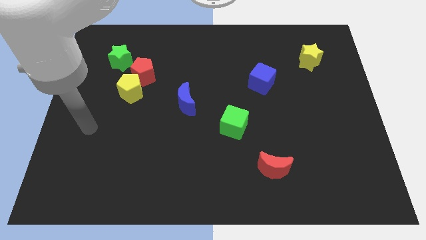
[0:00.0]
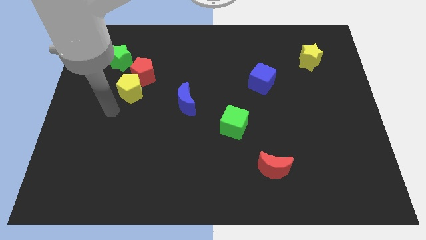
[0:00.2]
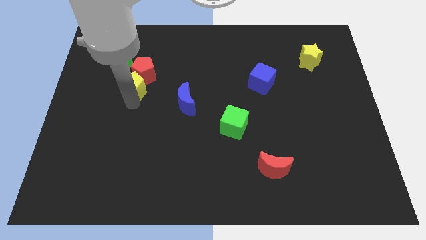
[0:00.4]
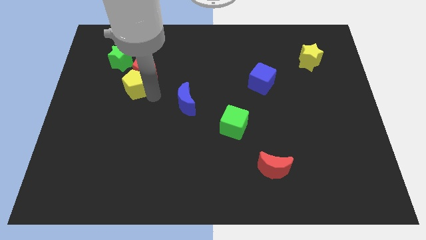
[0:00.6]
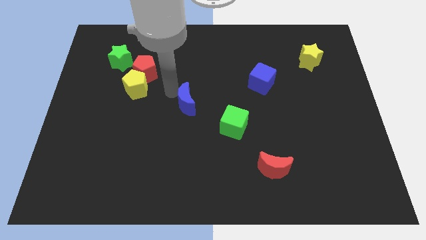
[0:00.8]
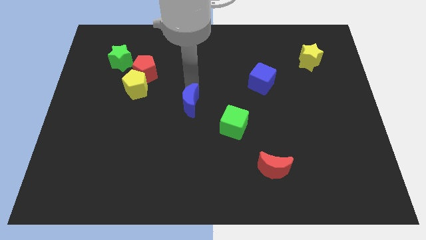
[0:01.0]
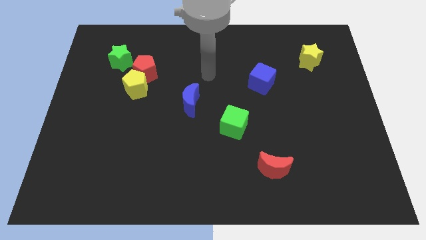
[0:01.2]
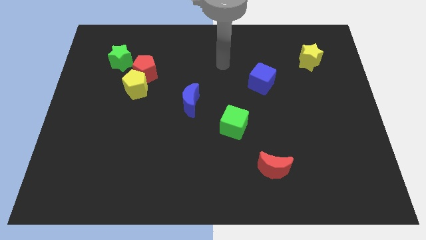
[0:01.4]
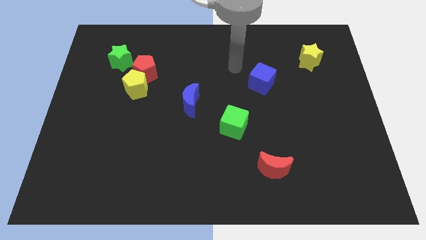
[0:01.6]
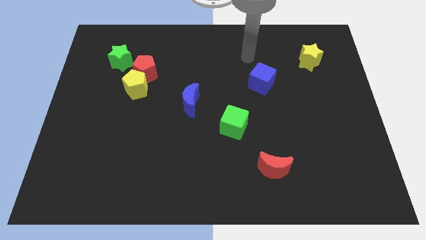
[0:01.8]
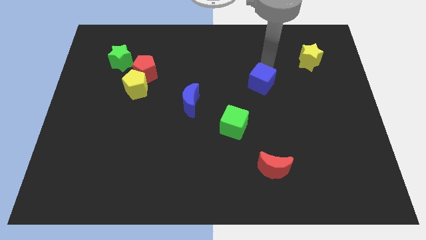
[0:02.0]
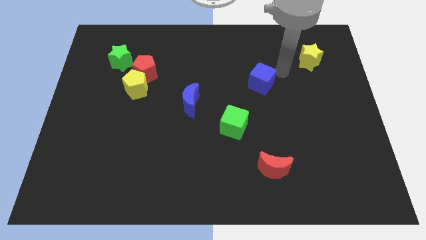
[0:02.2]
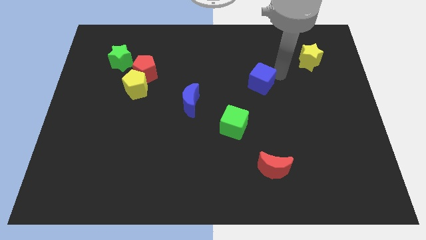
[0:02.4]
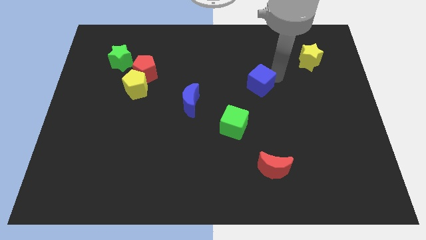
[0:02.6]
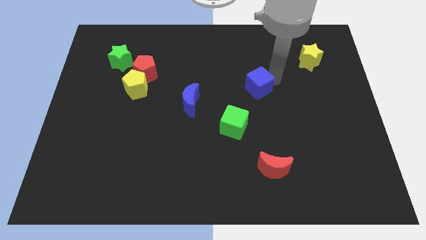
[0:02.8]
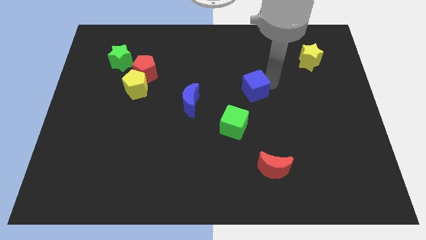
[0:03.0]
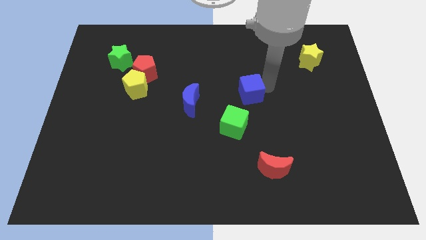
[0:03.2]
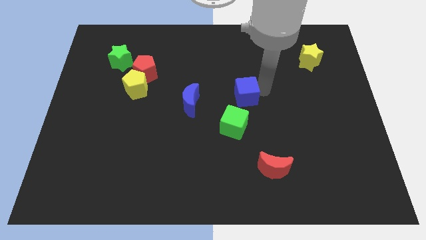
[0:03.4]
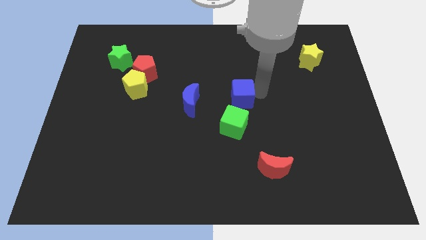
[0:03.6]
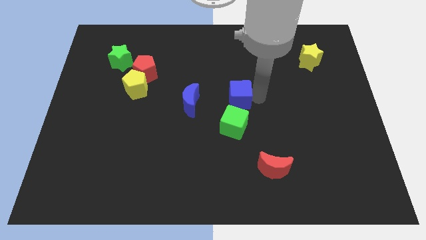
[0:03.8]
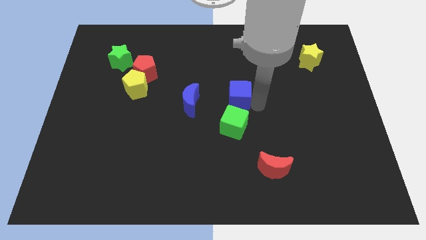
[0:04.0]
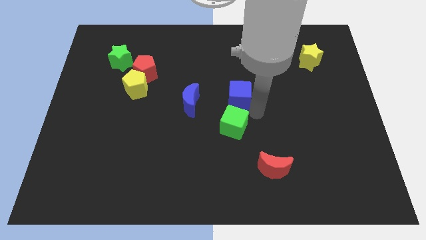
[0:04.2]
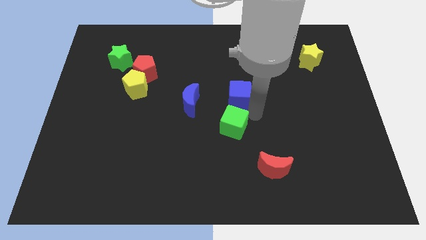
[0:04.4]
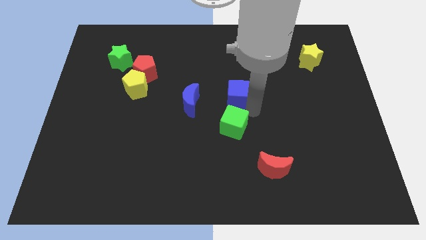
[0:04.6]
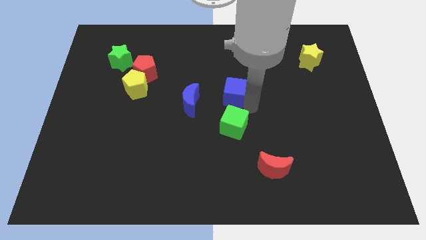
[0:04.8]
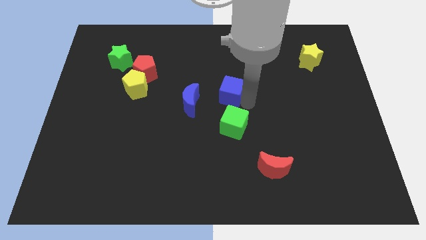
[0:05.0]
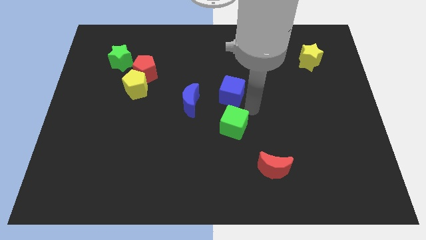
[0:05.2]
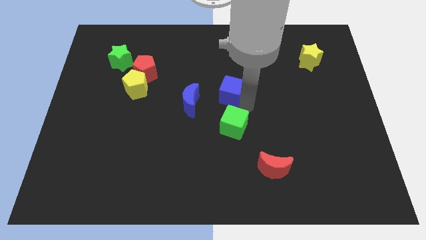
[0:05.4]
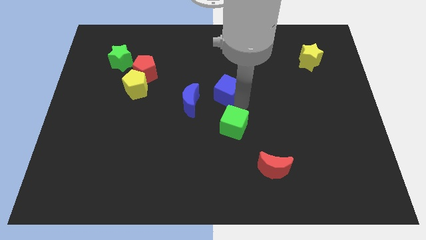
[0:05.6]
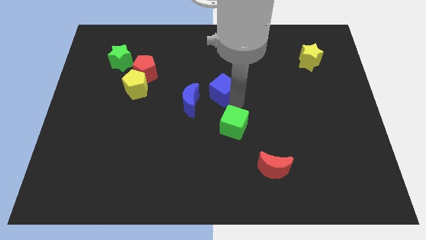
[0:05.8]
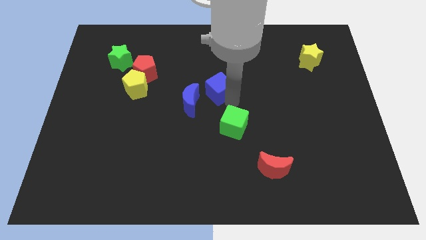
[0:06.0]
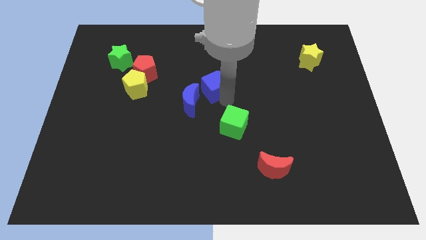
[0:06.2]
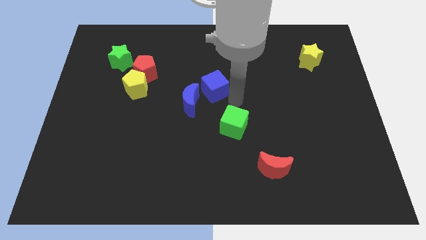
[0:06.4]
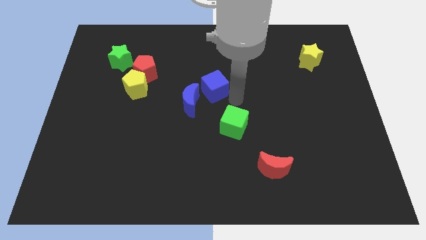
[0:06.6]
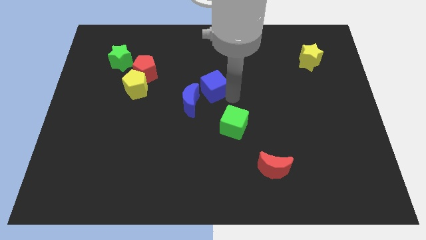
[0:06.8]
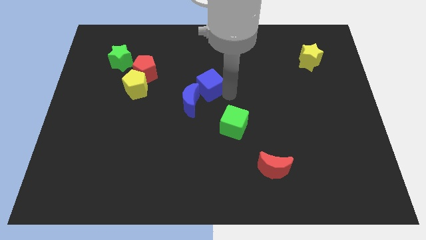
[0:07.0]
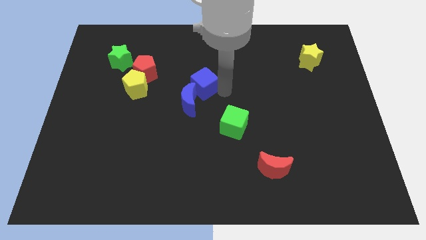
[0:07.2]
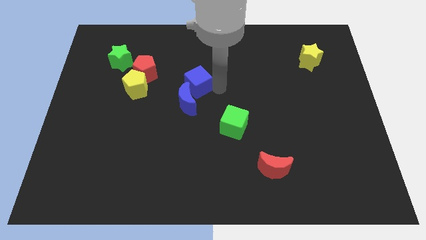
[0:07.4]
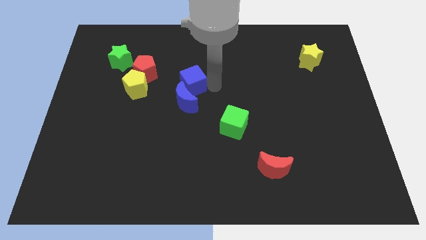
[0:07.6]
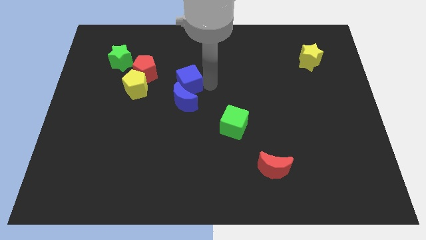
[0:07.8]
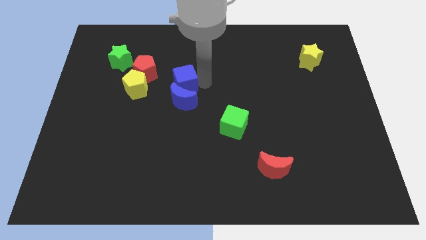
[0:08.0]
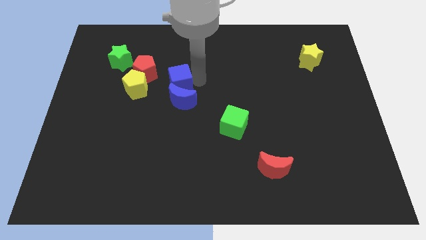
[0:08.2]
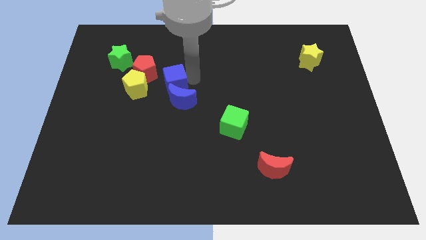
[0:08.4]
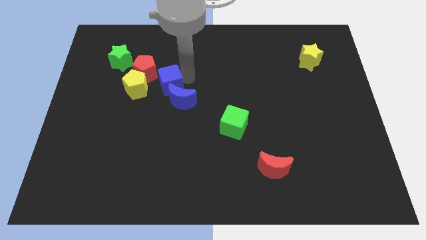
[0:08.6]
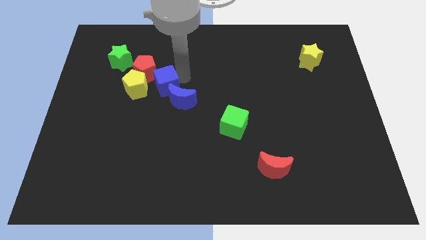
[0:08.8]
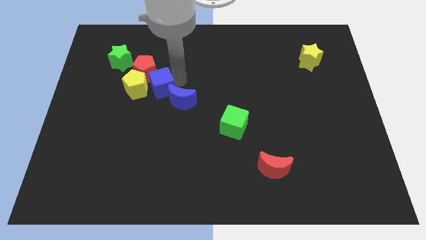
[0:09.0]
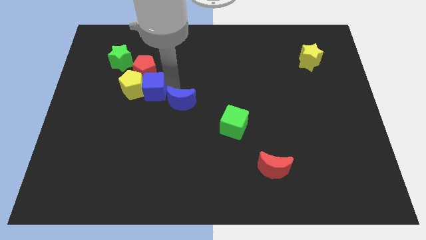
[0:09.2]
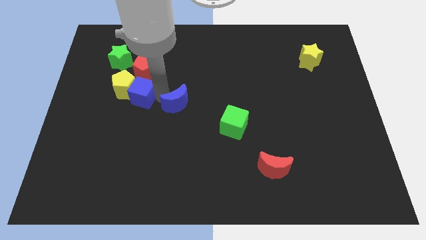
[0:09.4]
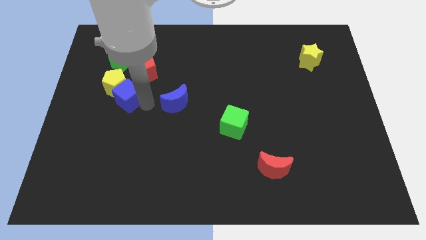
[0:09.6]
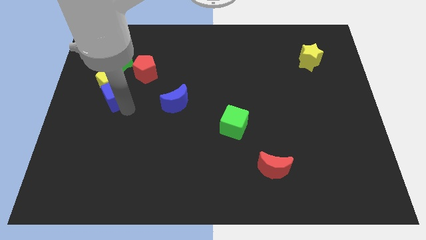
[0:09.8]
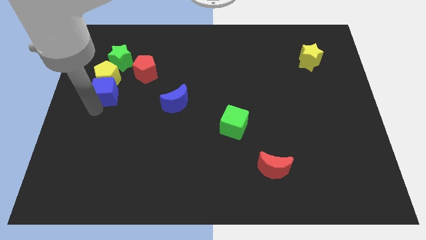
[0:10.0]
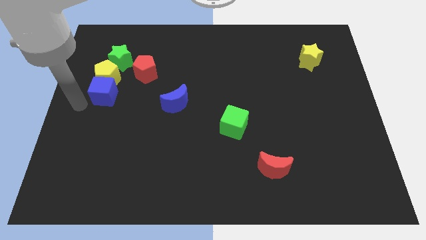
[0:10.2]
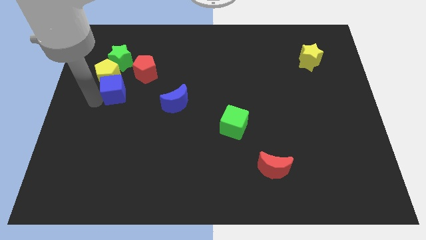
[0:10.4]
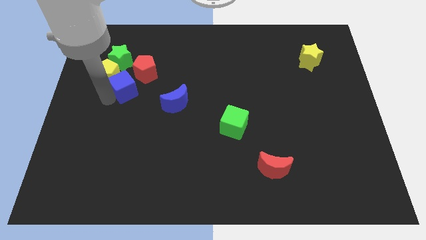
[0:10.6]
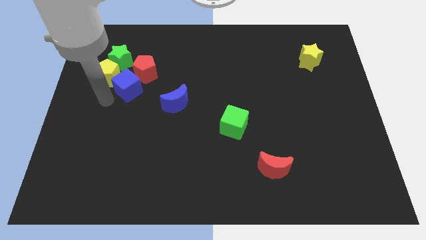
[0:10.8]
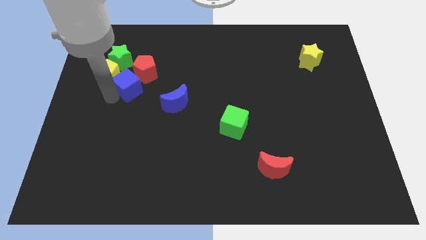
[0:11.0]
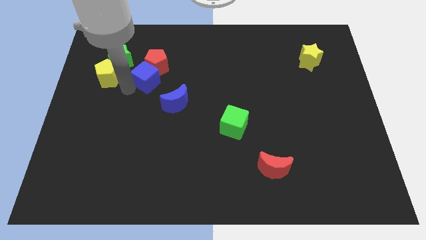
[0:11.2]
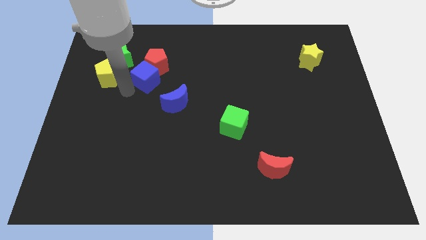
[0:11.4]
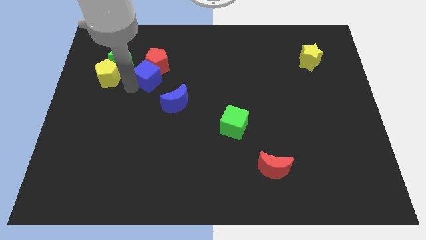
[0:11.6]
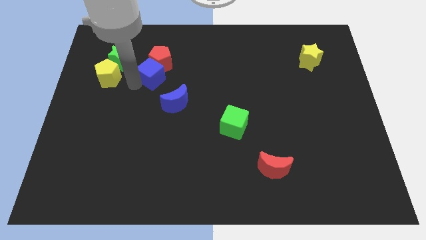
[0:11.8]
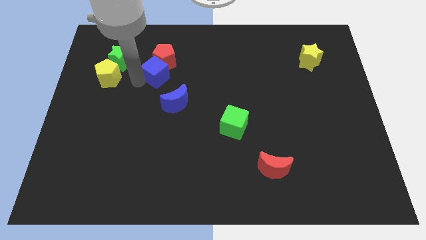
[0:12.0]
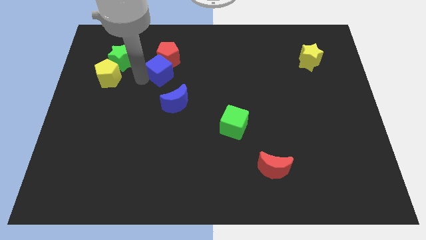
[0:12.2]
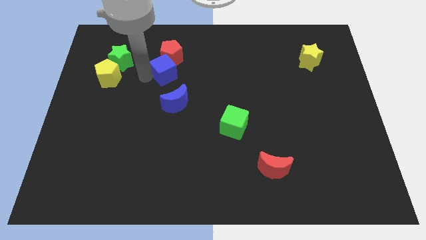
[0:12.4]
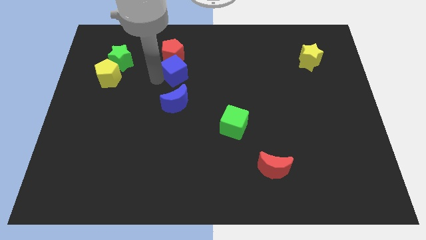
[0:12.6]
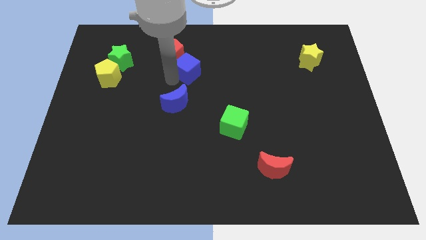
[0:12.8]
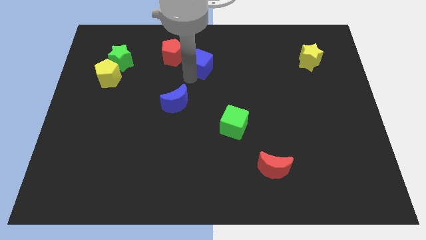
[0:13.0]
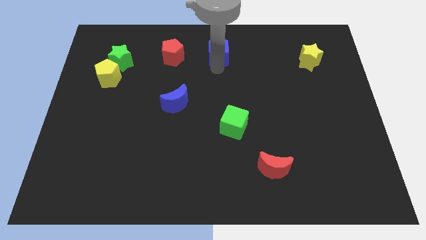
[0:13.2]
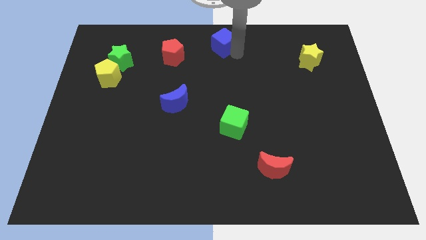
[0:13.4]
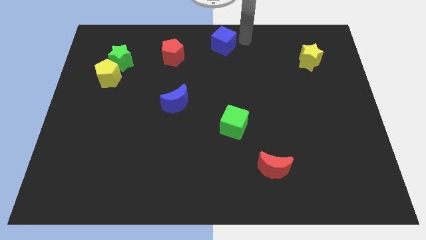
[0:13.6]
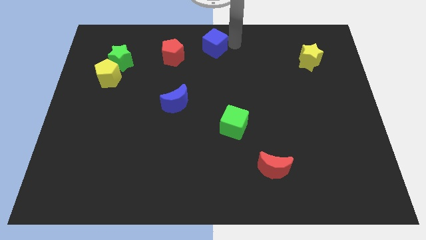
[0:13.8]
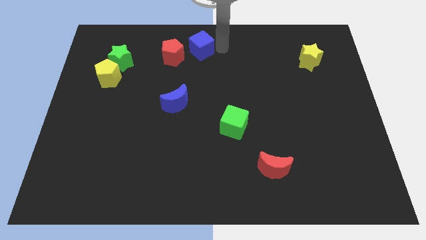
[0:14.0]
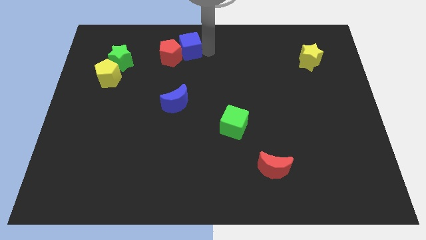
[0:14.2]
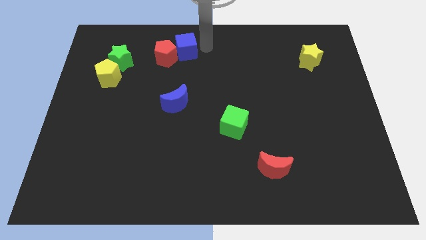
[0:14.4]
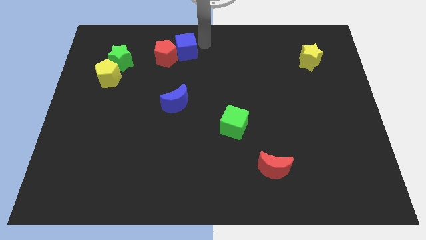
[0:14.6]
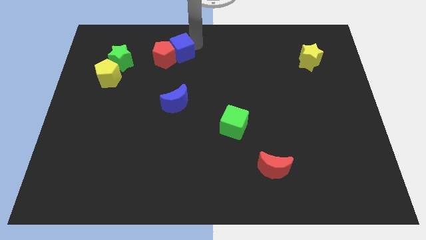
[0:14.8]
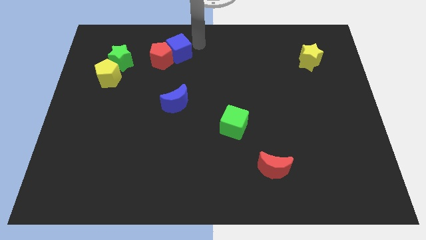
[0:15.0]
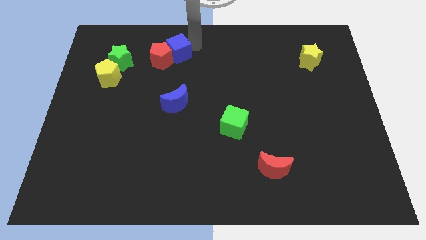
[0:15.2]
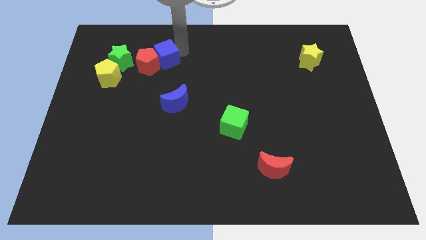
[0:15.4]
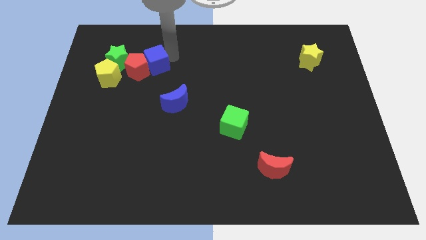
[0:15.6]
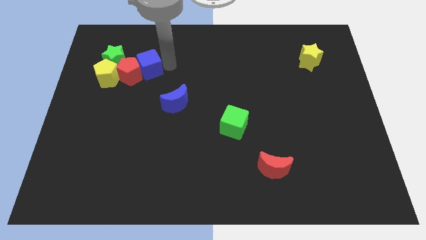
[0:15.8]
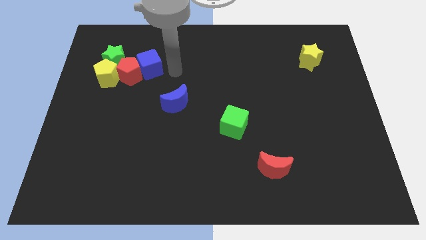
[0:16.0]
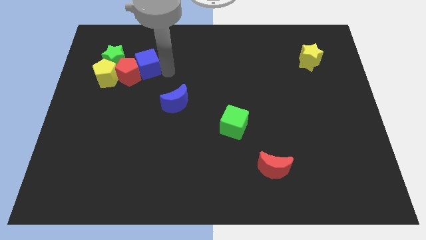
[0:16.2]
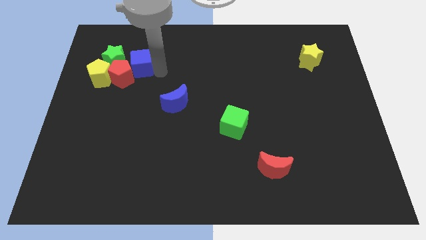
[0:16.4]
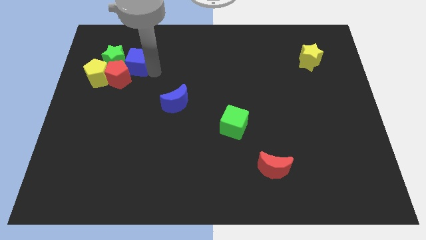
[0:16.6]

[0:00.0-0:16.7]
move the blue cube to the green star
